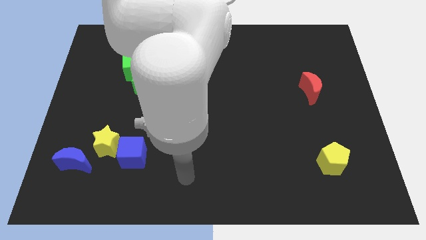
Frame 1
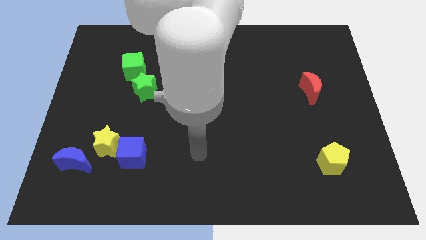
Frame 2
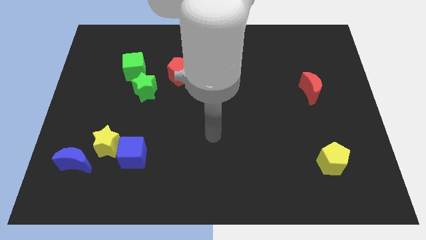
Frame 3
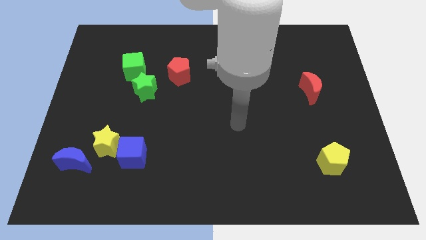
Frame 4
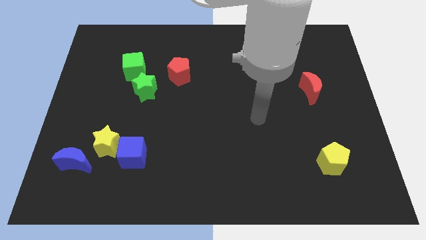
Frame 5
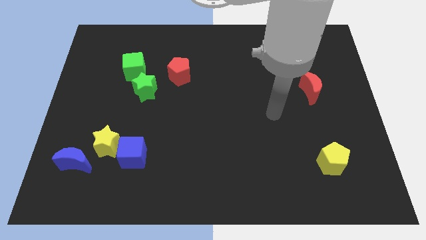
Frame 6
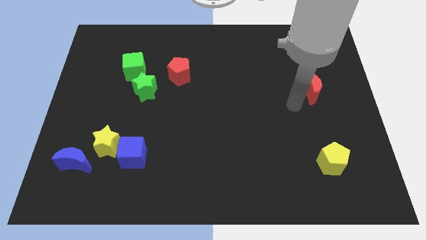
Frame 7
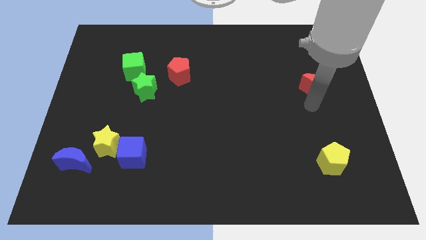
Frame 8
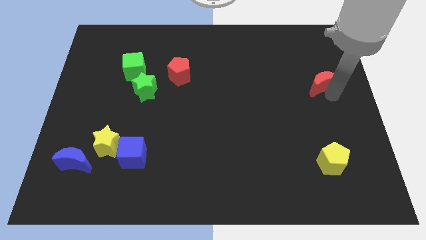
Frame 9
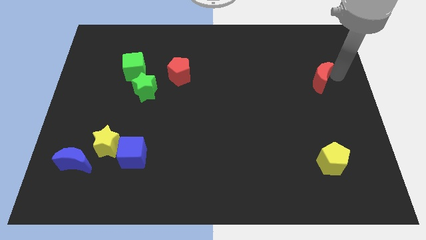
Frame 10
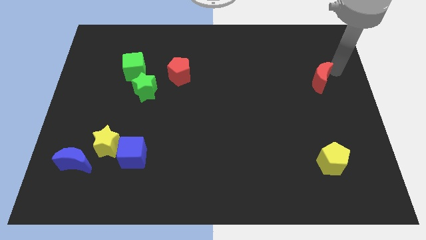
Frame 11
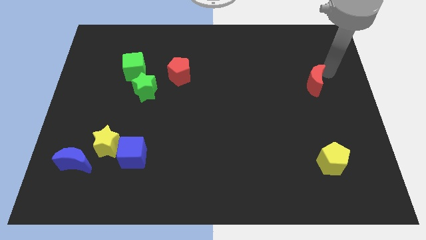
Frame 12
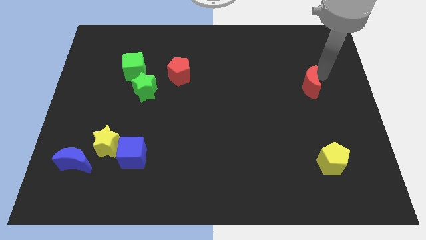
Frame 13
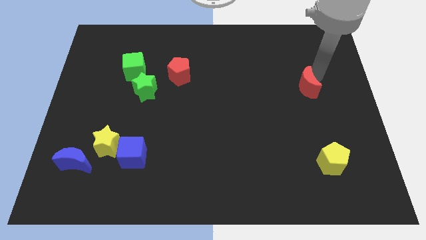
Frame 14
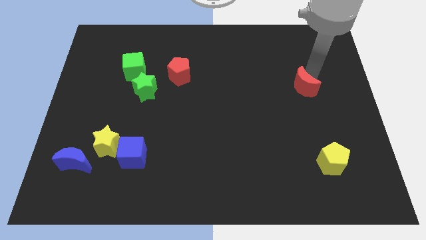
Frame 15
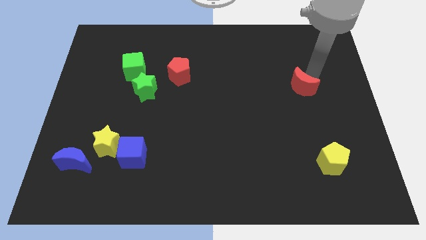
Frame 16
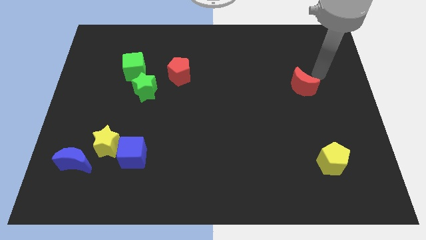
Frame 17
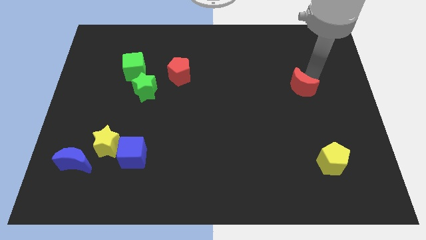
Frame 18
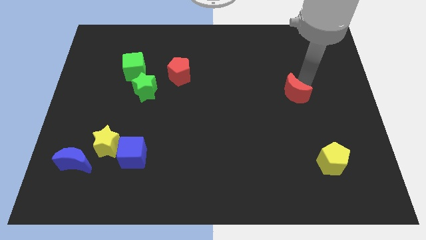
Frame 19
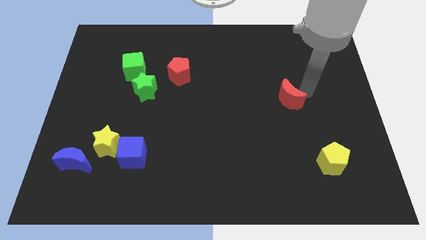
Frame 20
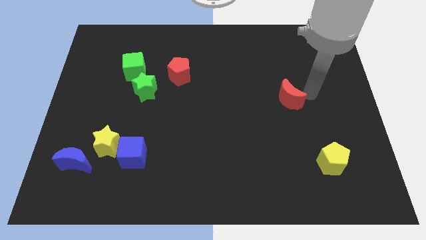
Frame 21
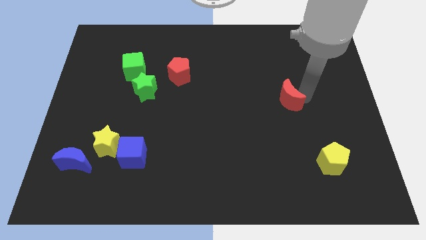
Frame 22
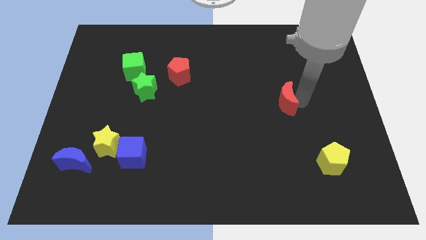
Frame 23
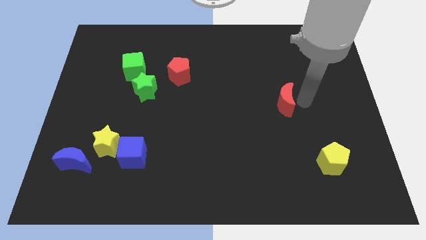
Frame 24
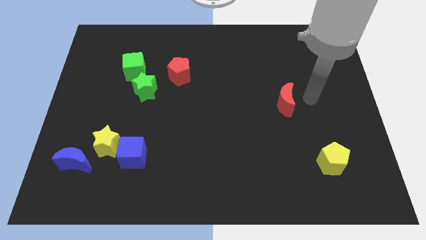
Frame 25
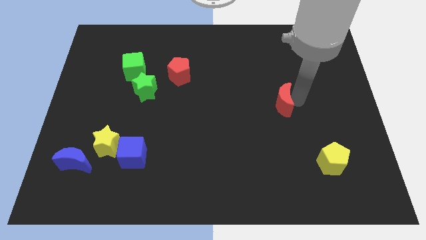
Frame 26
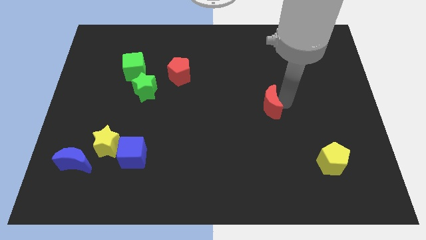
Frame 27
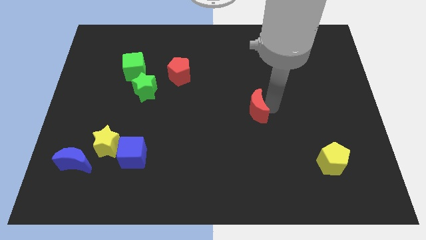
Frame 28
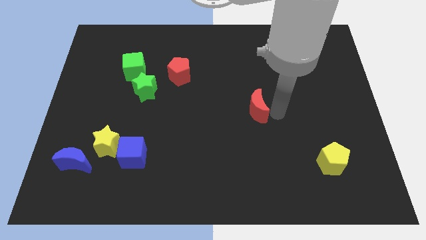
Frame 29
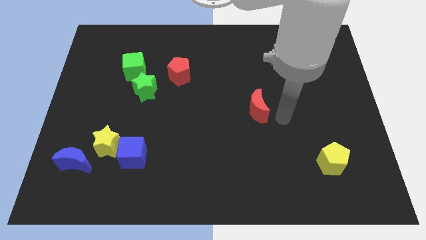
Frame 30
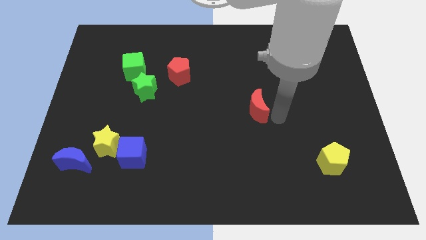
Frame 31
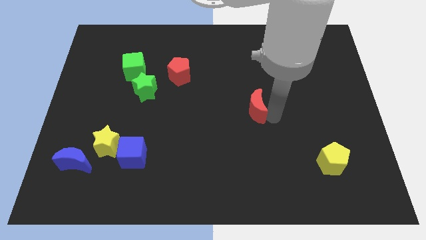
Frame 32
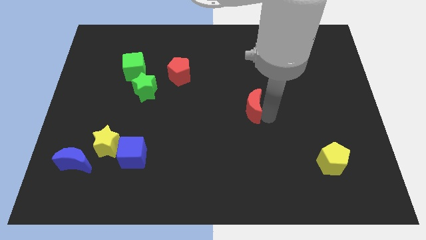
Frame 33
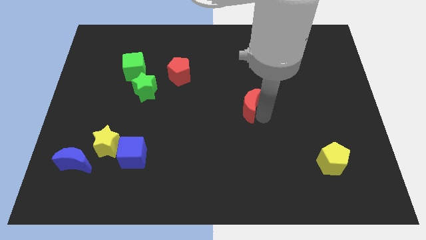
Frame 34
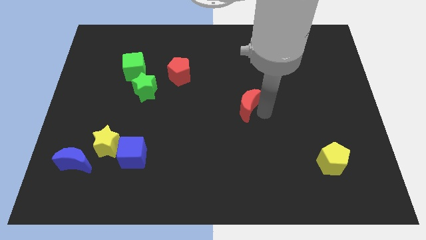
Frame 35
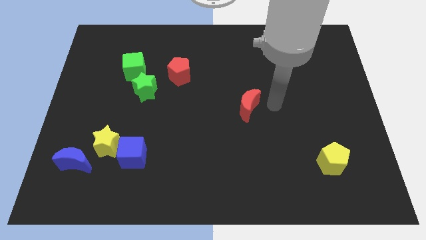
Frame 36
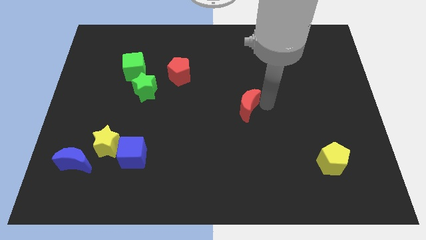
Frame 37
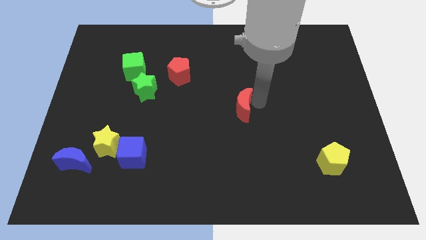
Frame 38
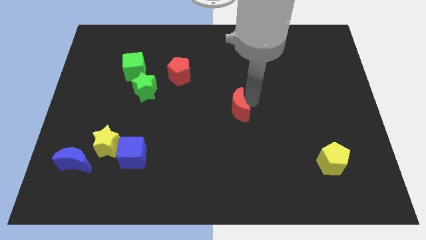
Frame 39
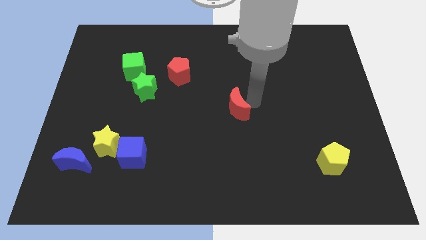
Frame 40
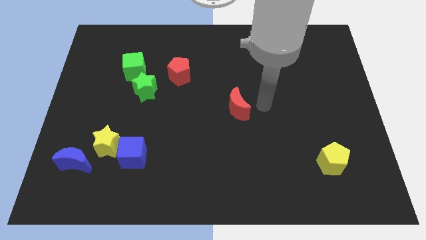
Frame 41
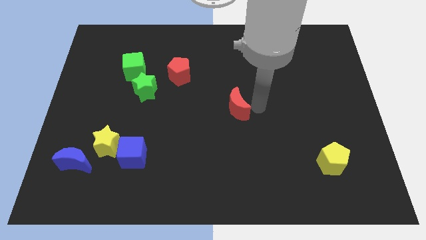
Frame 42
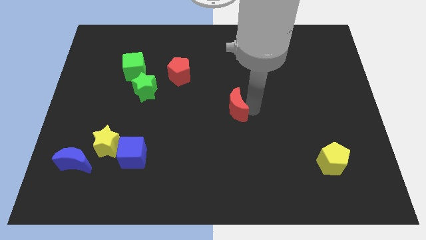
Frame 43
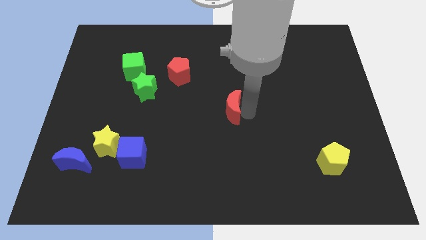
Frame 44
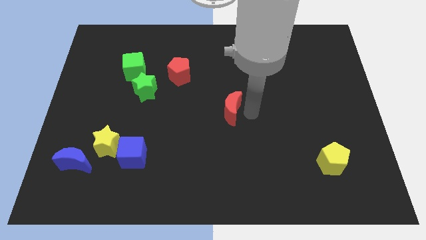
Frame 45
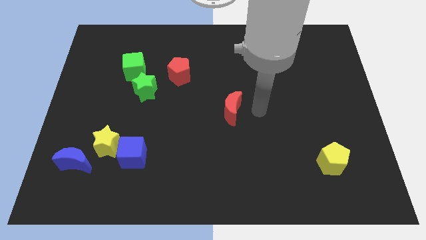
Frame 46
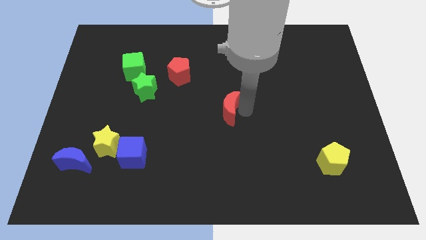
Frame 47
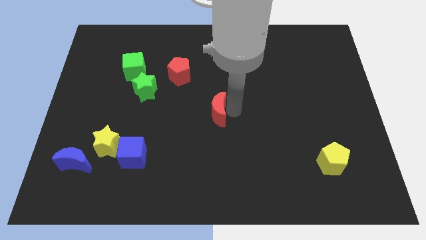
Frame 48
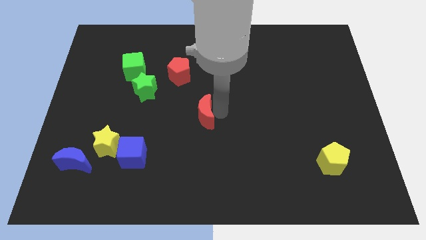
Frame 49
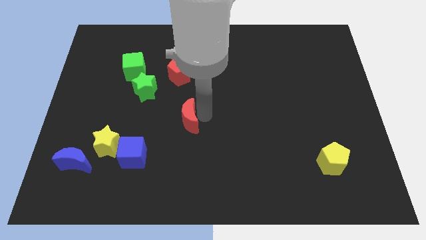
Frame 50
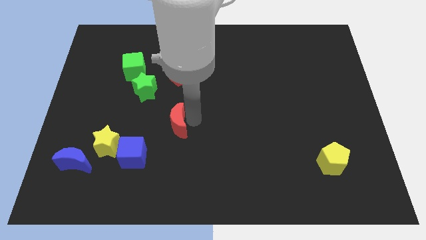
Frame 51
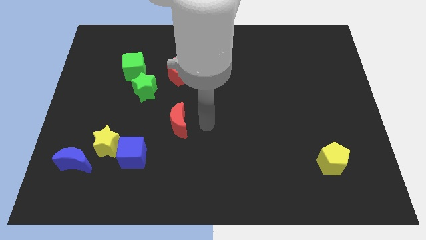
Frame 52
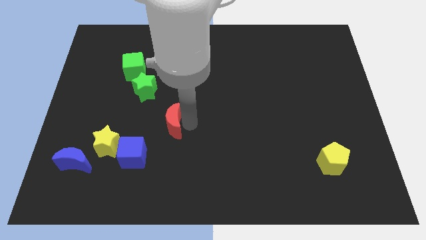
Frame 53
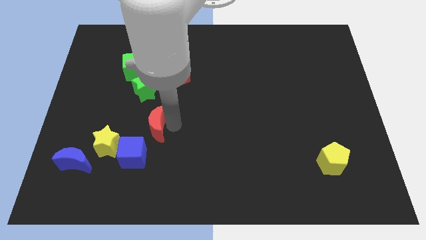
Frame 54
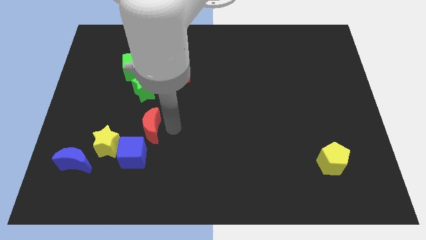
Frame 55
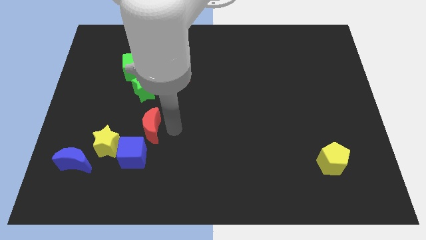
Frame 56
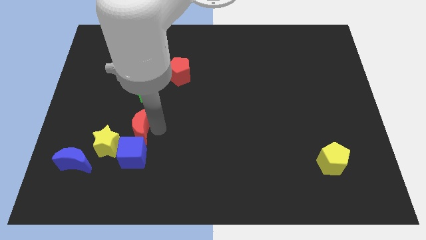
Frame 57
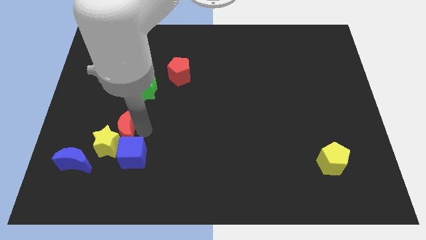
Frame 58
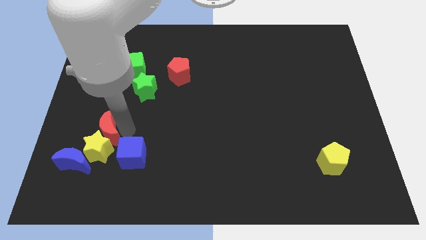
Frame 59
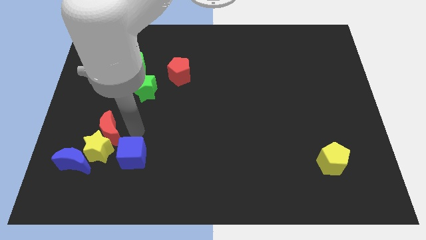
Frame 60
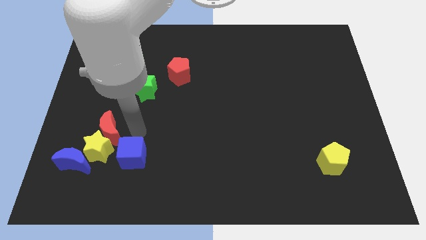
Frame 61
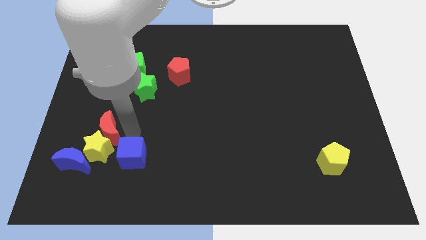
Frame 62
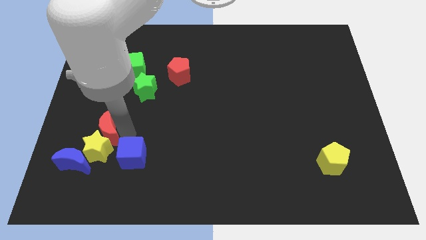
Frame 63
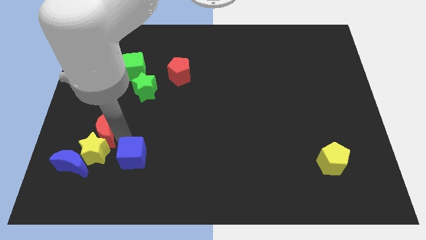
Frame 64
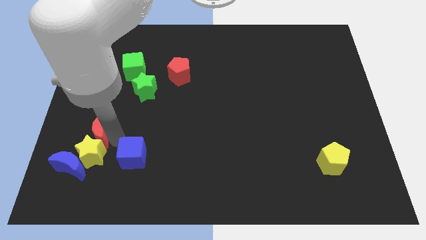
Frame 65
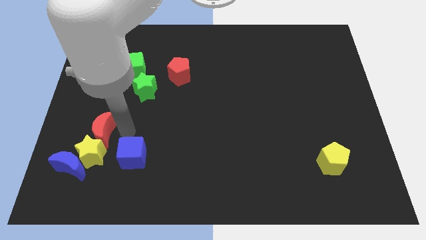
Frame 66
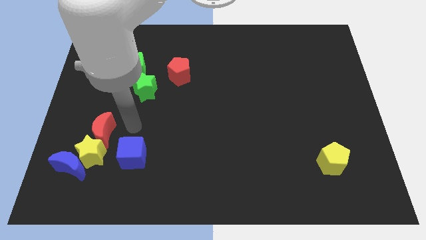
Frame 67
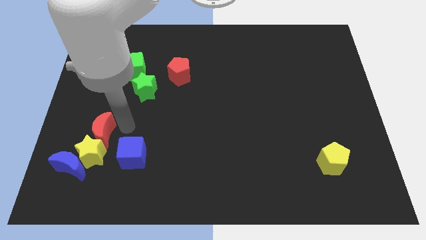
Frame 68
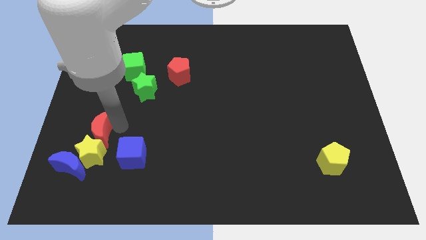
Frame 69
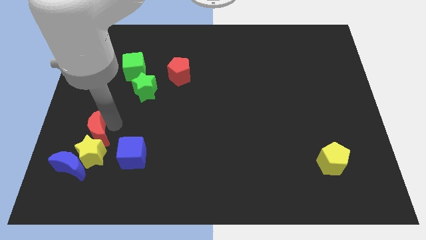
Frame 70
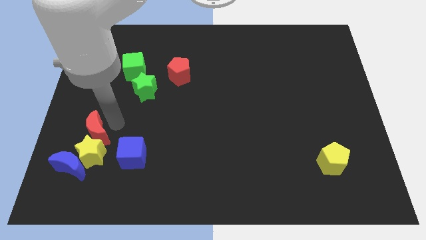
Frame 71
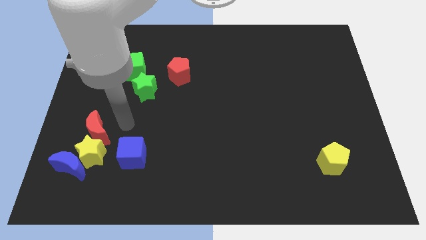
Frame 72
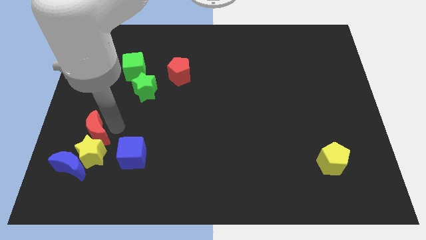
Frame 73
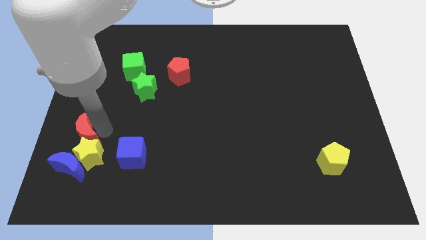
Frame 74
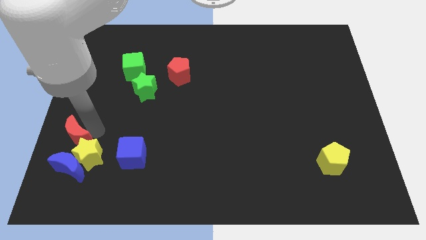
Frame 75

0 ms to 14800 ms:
slide the red moon just left of the blue cube
